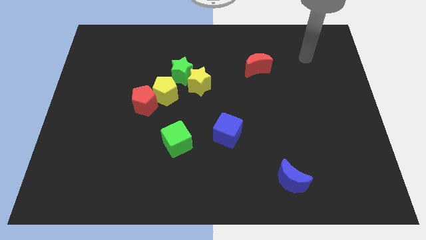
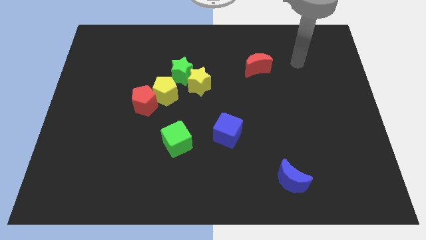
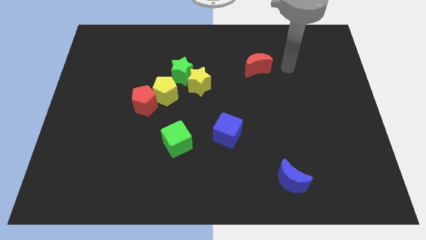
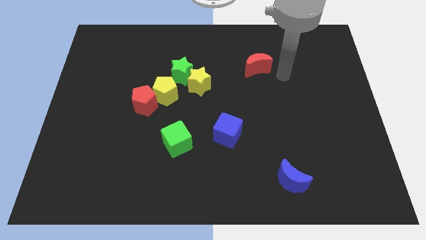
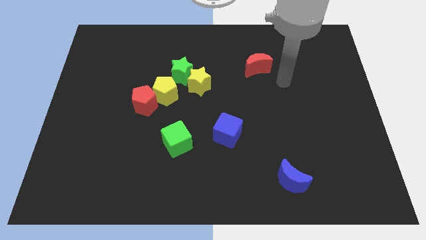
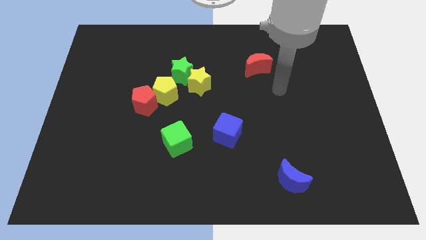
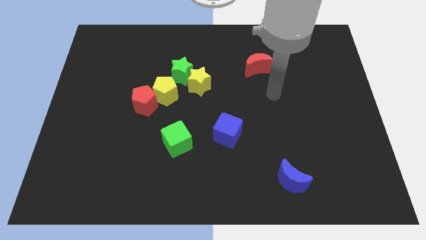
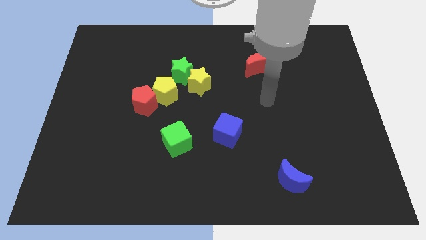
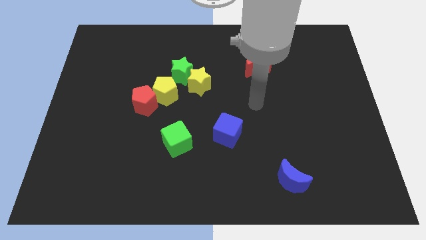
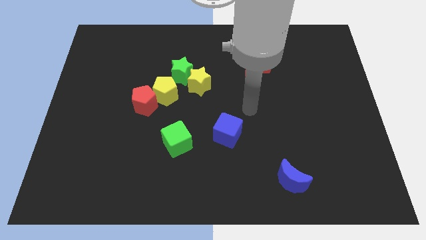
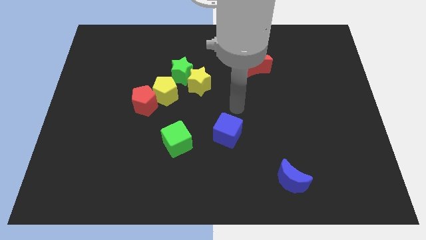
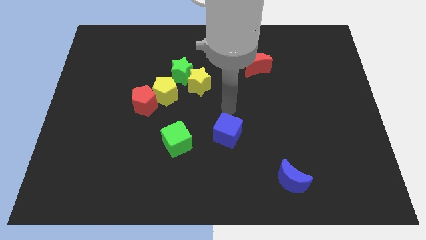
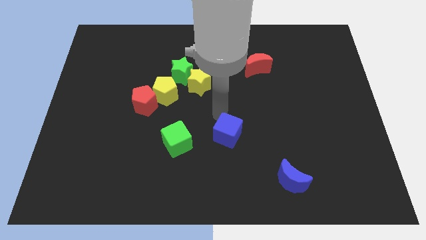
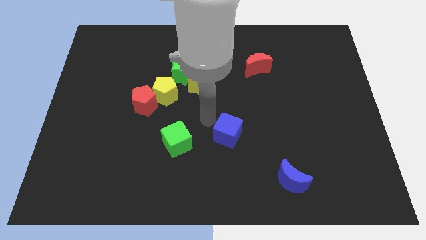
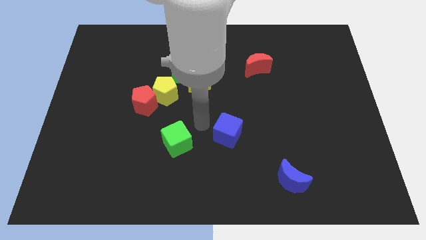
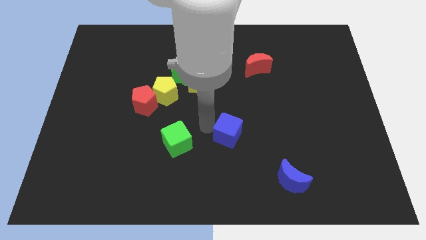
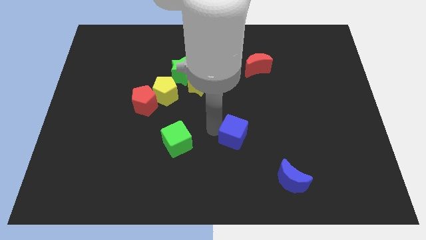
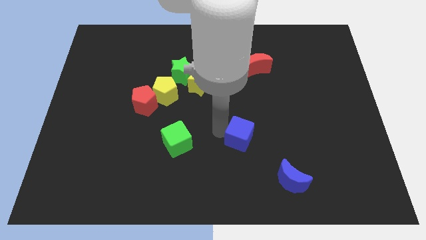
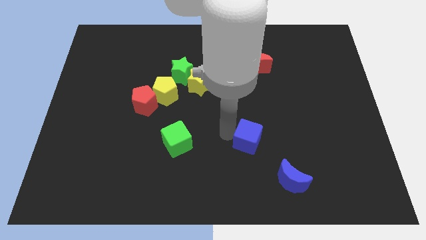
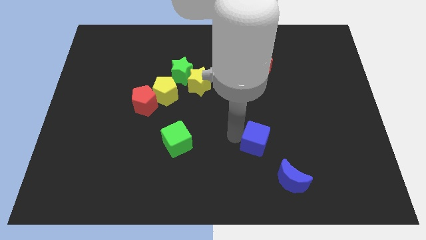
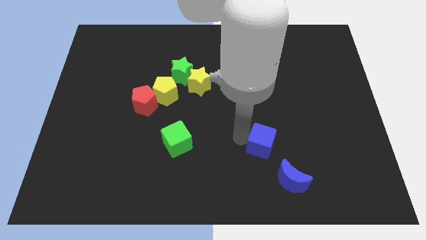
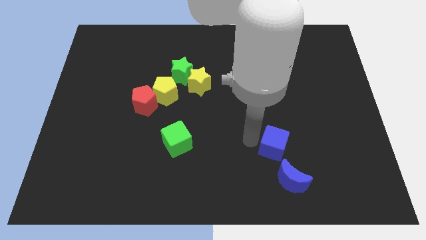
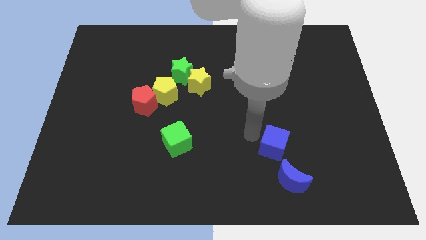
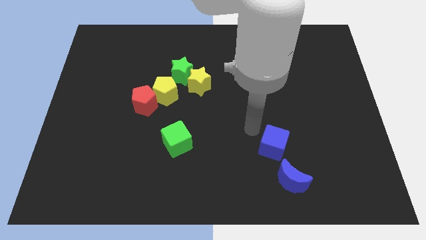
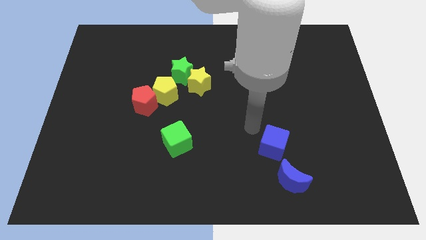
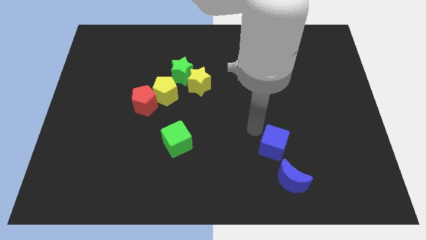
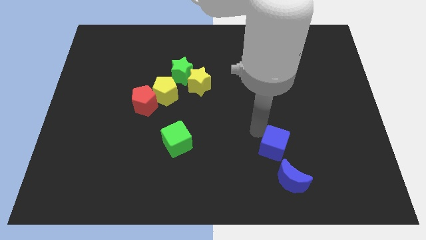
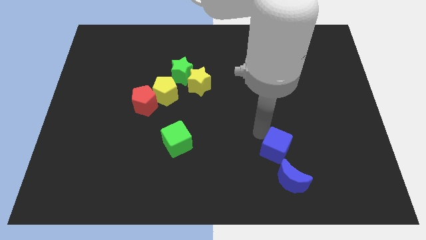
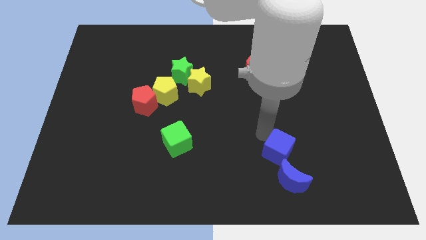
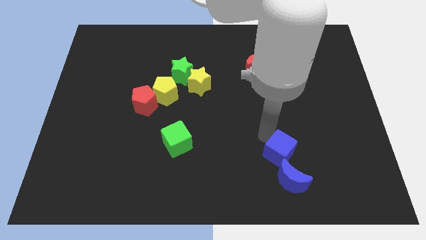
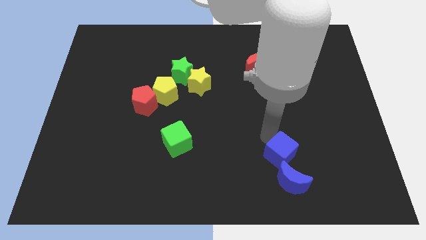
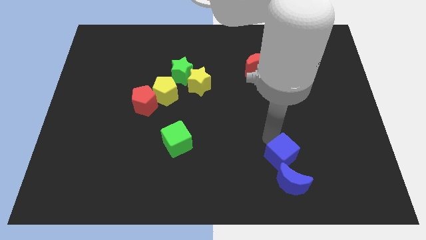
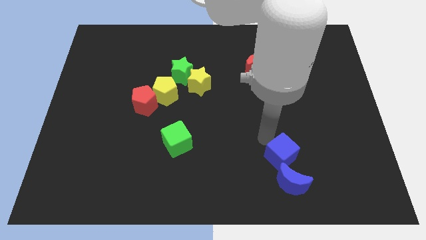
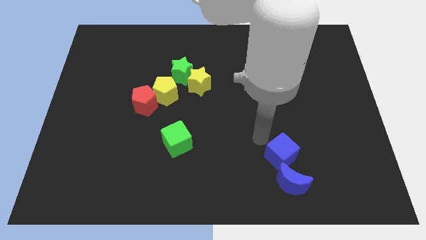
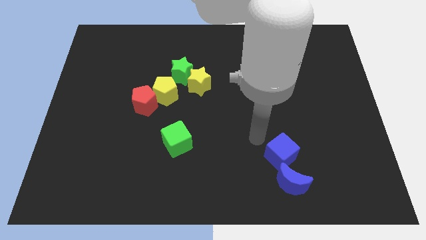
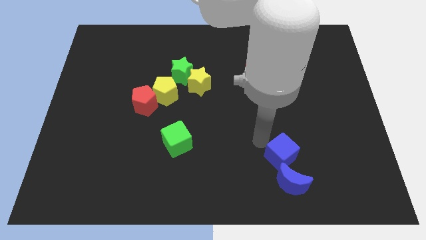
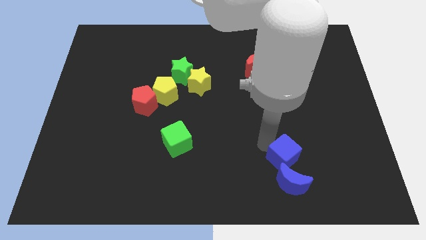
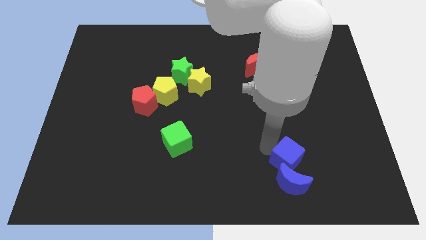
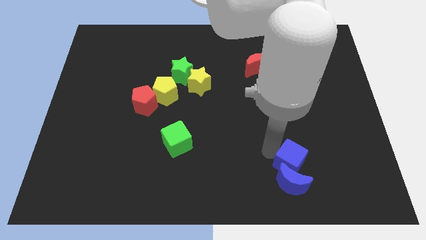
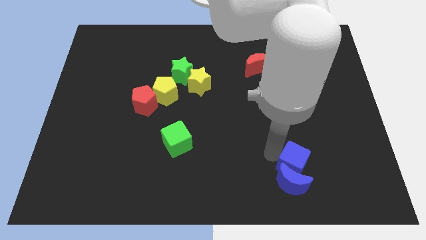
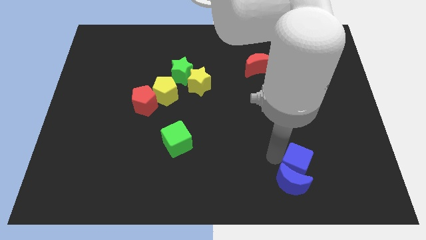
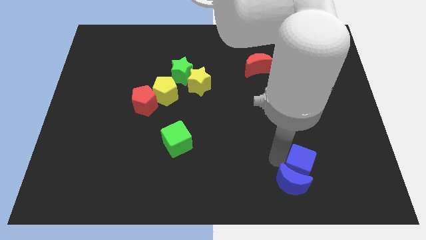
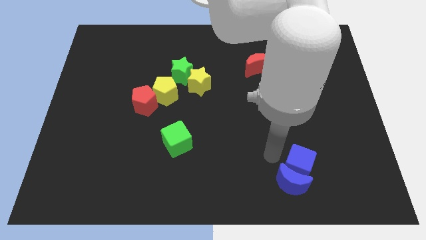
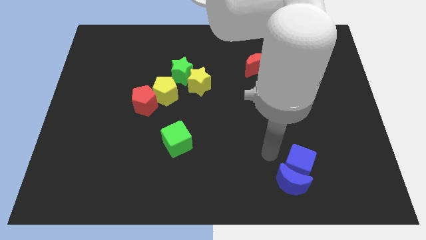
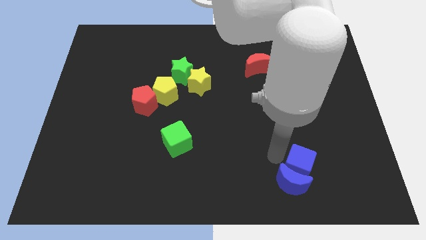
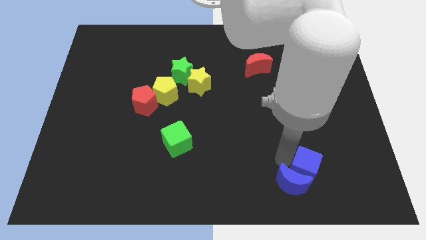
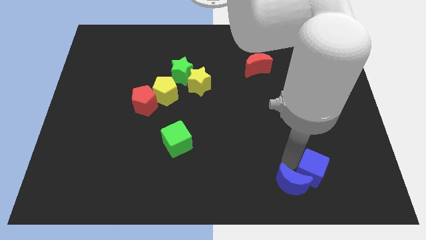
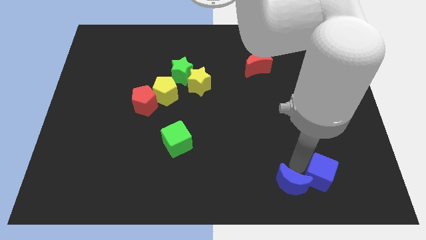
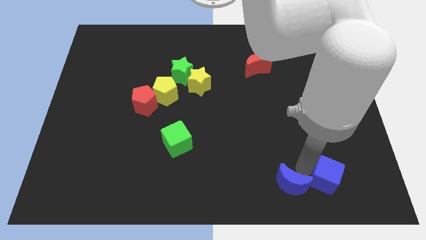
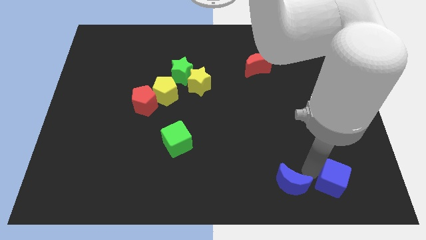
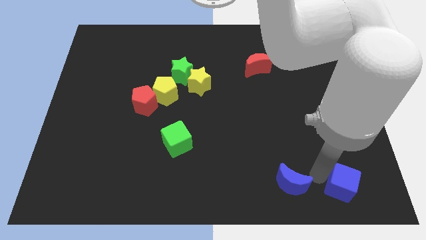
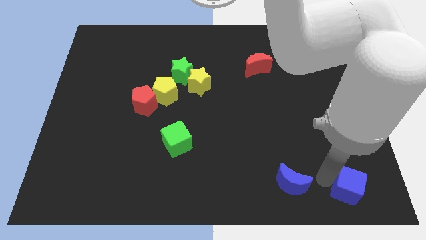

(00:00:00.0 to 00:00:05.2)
move the blue cube to the bottom right corner

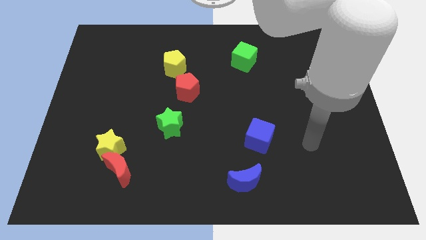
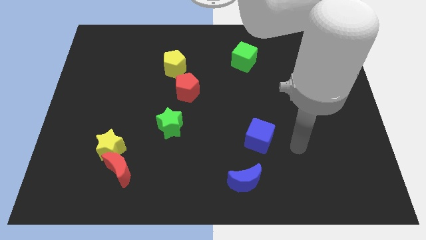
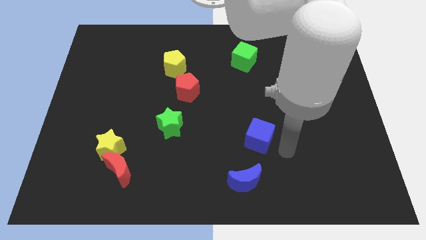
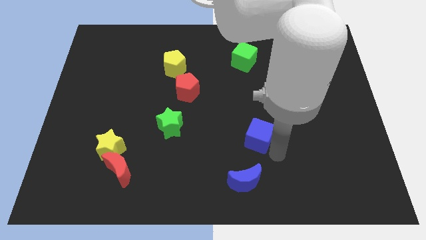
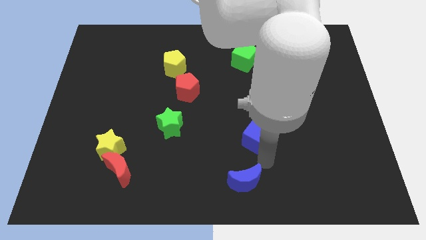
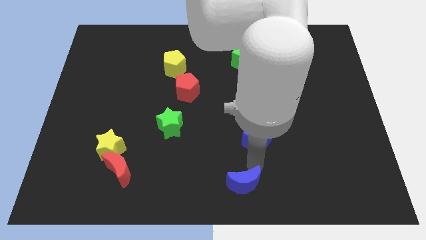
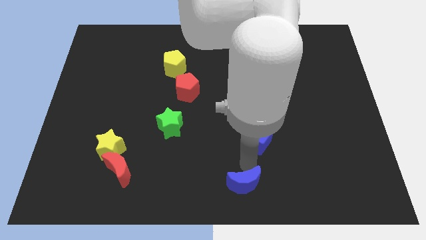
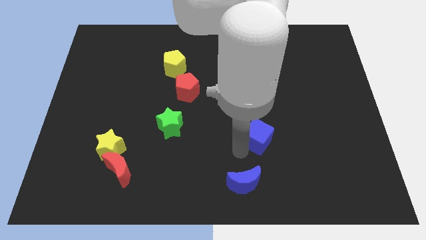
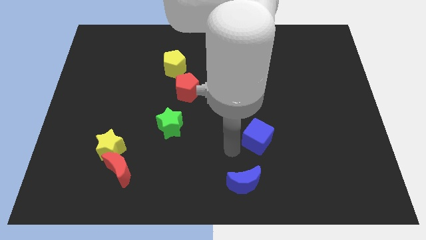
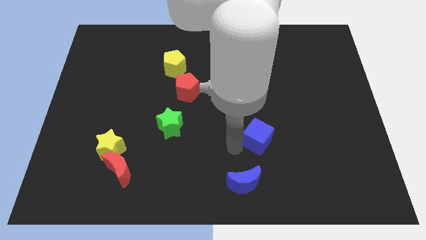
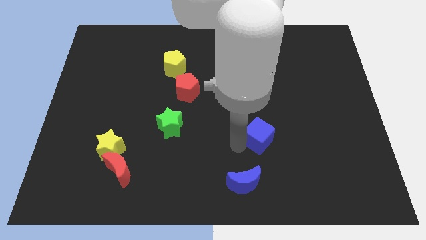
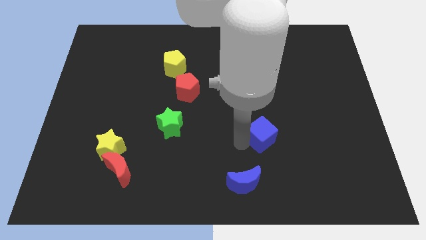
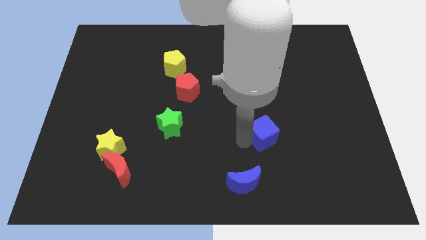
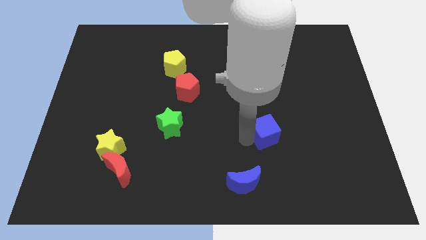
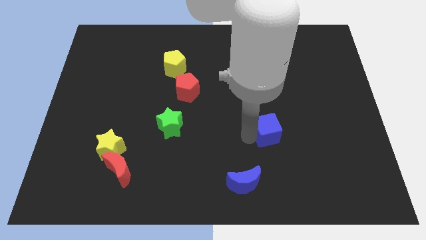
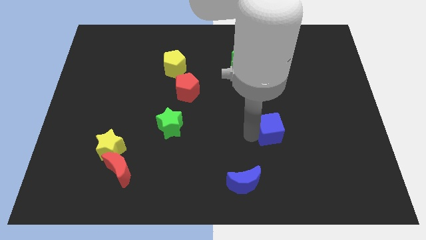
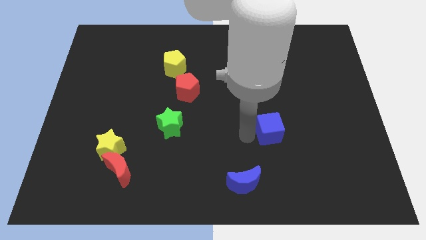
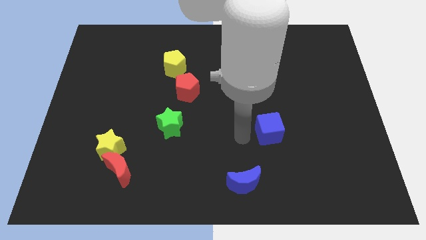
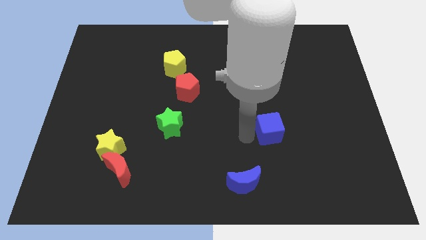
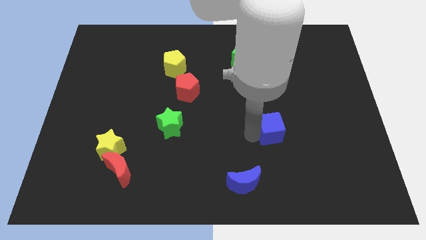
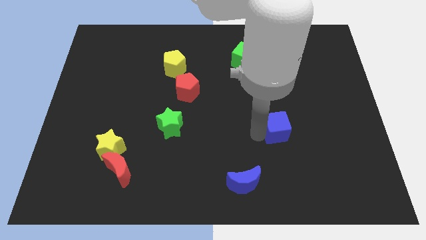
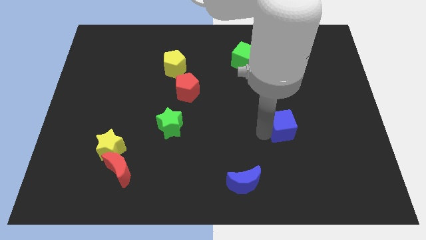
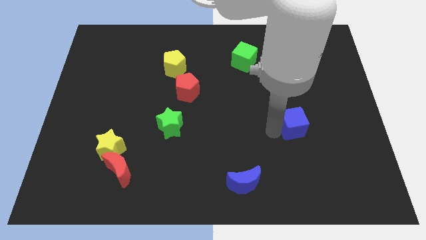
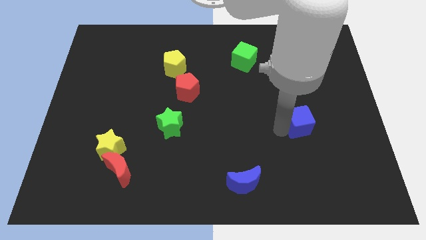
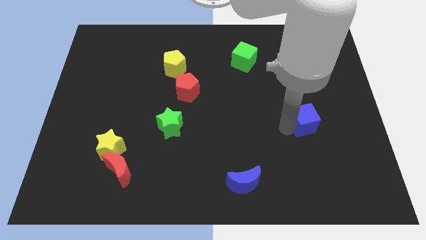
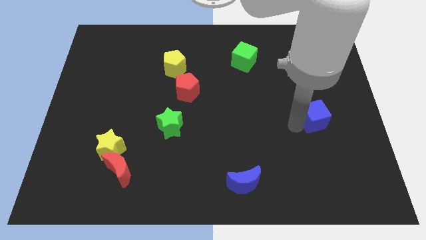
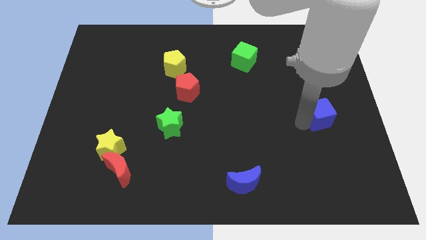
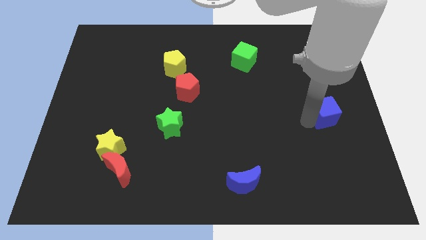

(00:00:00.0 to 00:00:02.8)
put the blue cube to the right side of the board
